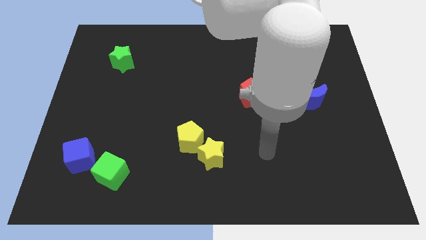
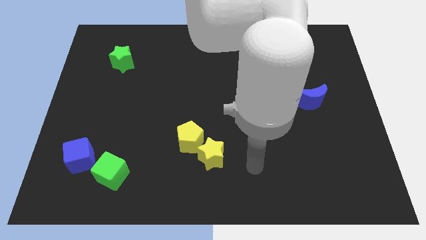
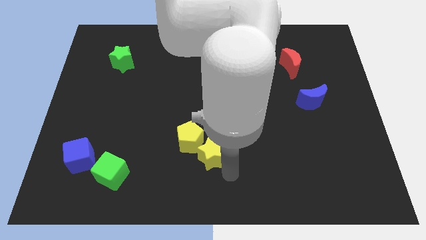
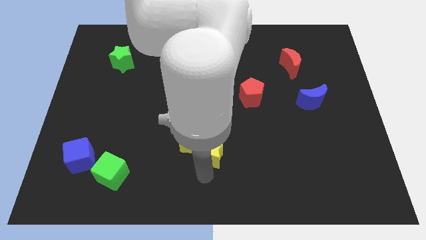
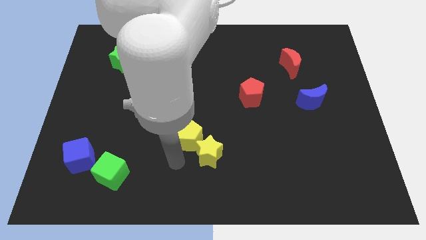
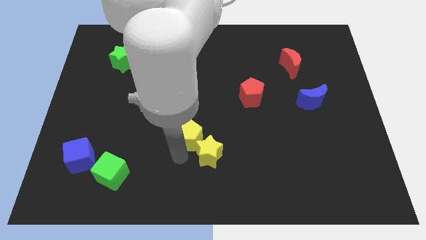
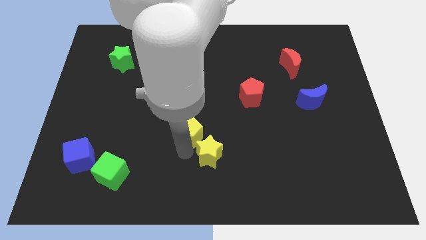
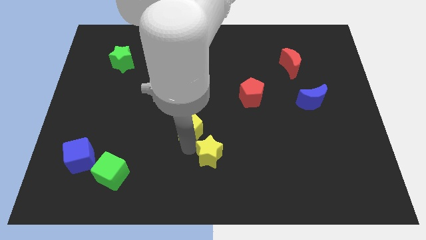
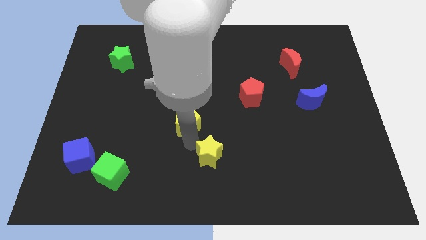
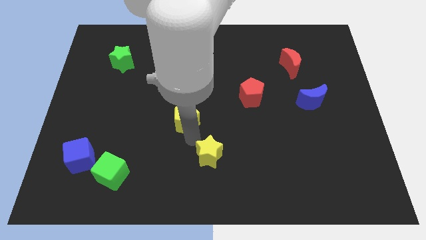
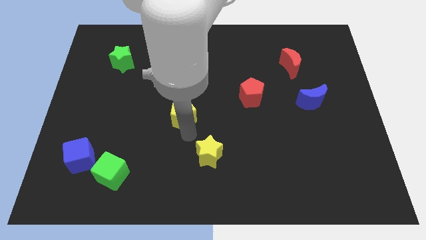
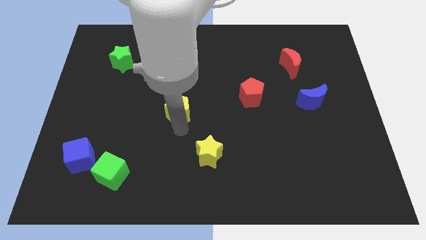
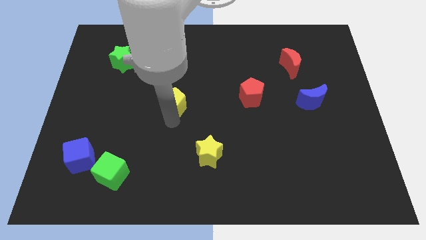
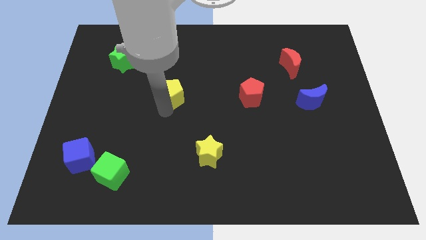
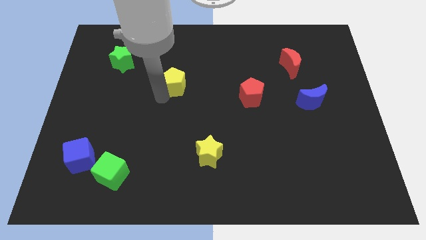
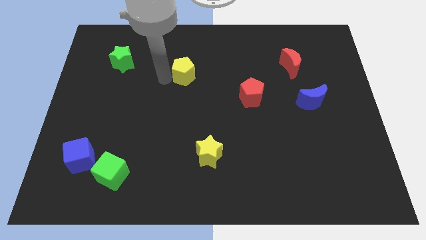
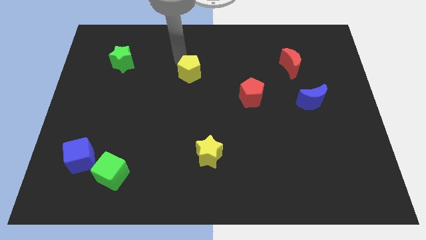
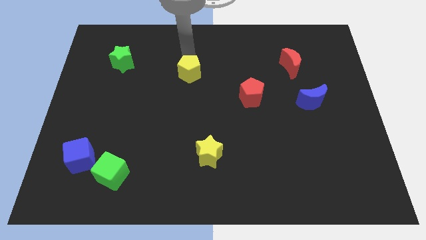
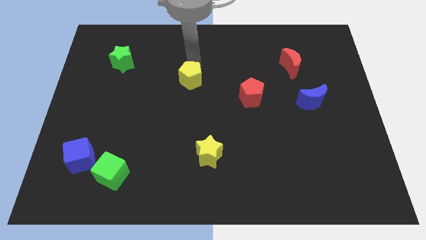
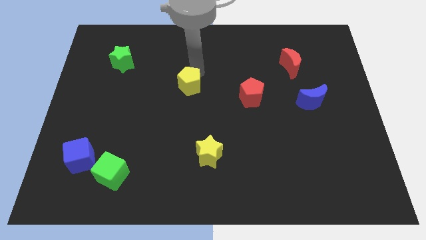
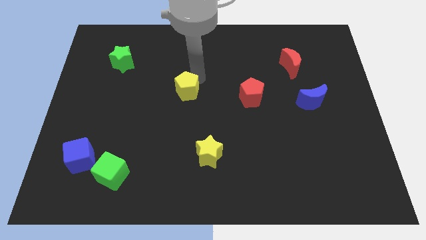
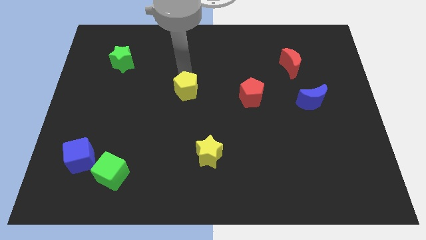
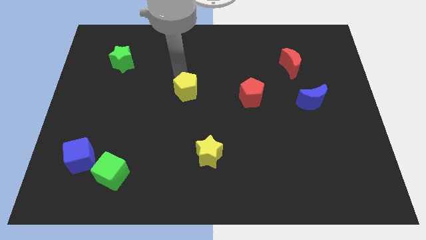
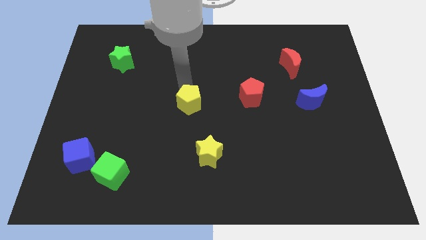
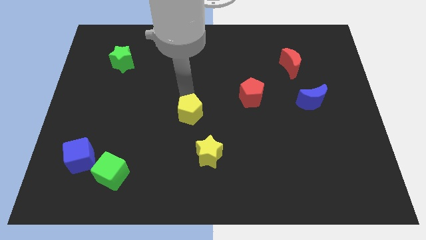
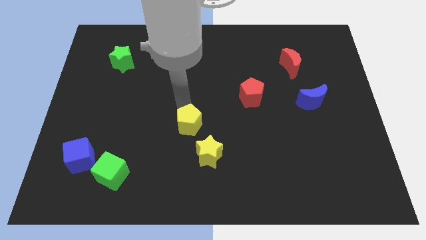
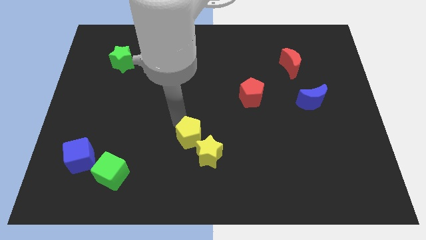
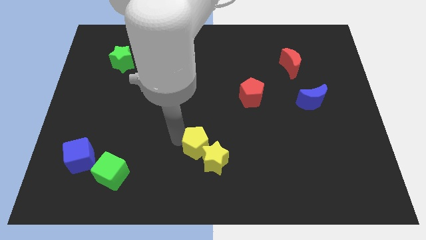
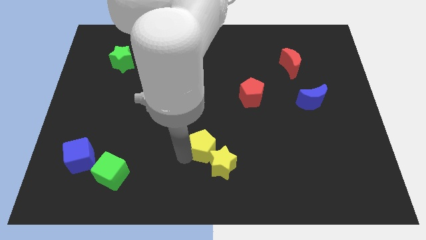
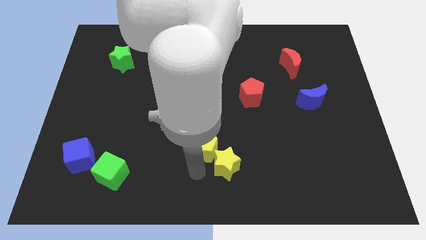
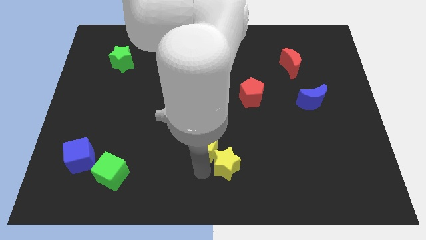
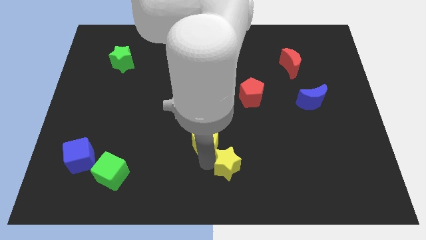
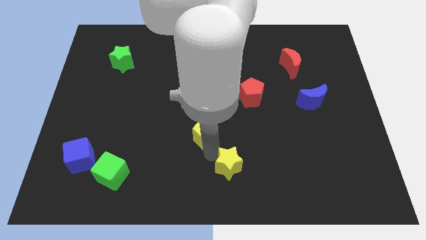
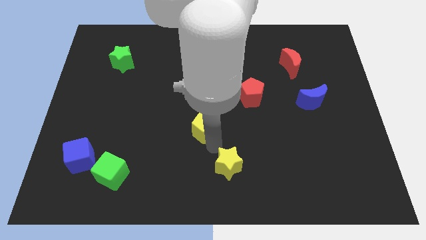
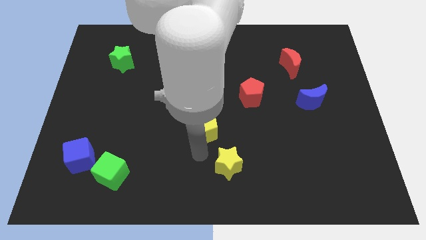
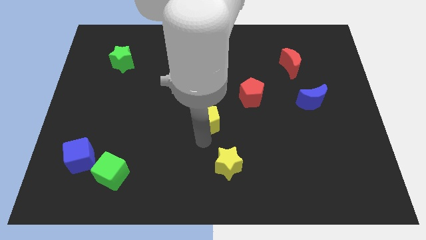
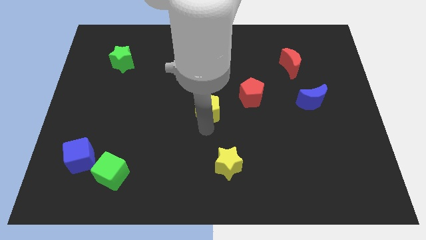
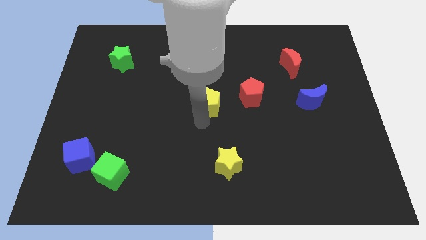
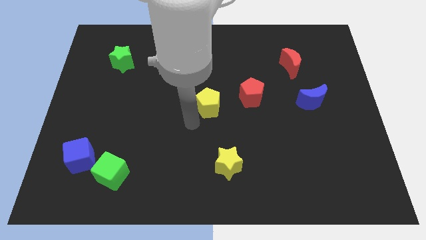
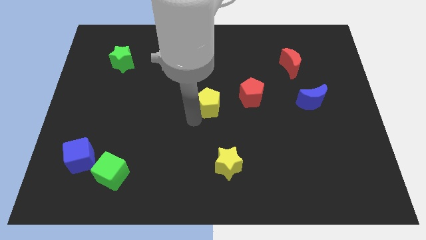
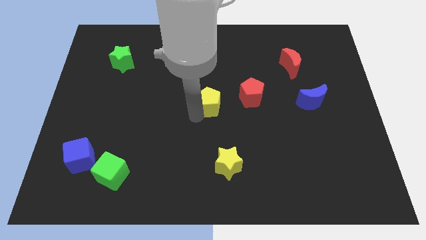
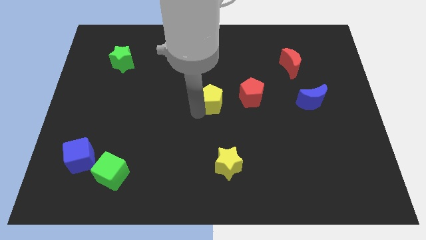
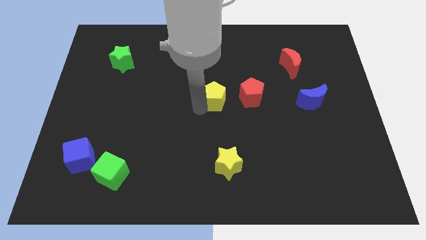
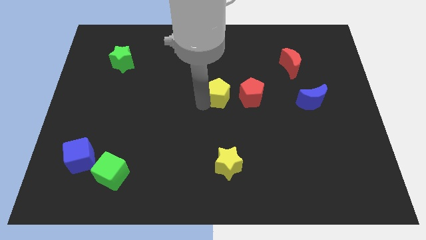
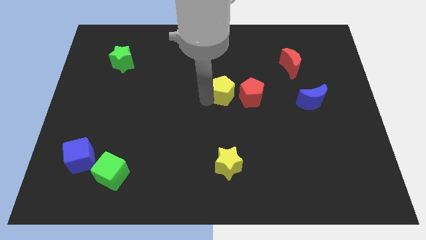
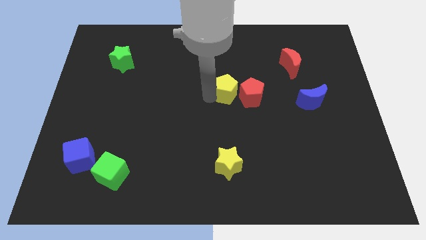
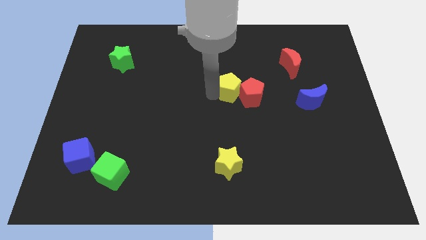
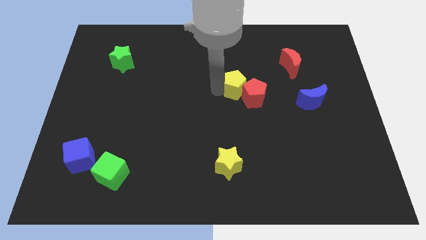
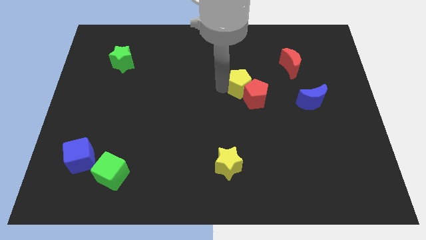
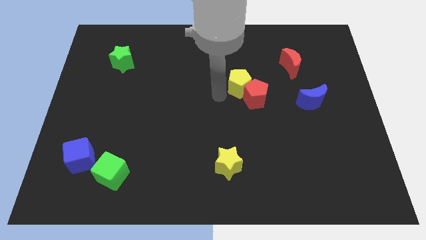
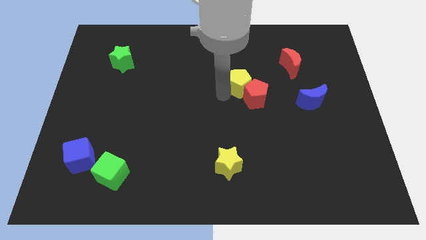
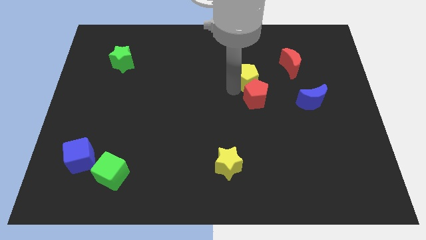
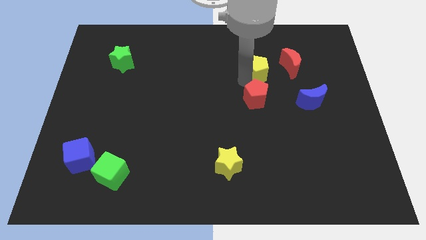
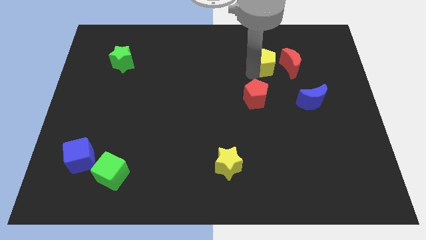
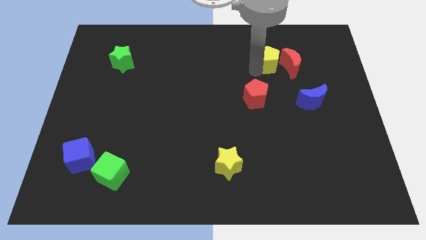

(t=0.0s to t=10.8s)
put the yellow pentagon next to the red moon

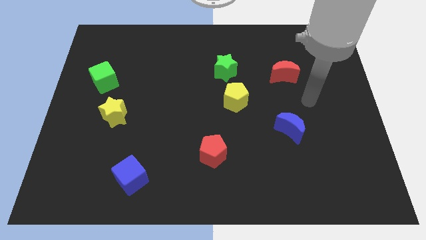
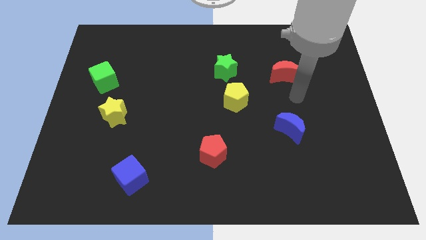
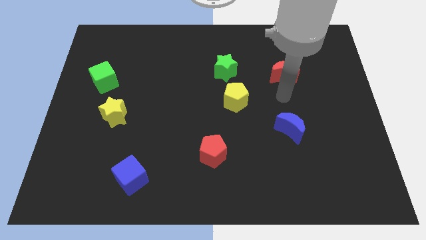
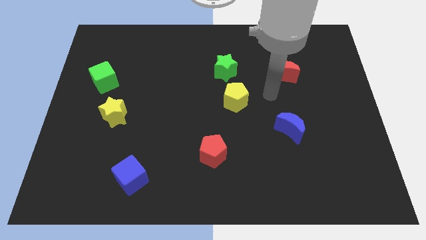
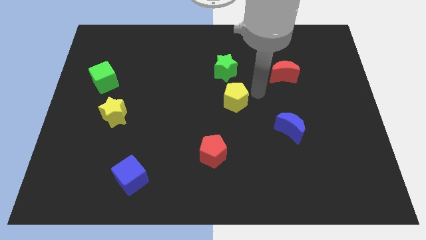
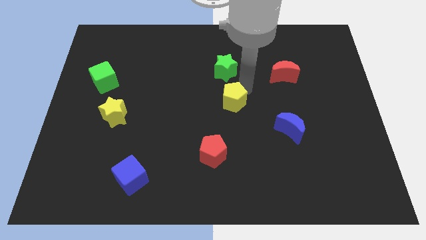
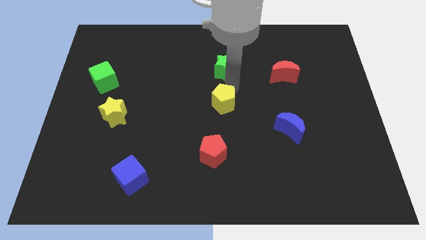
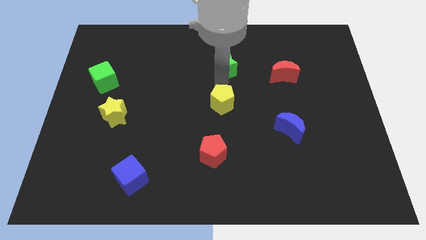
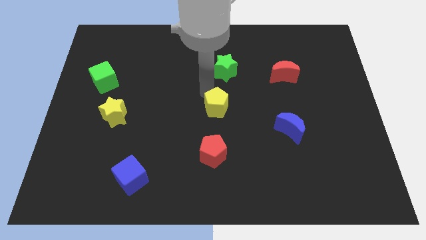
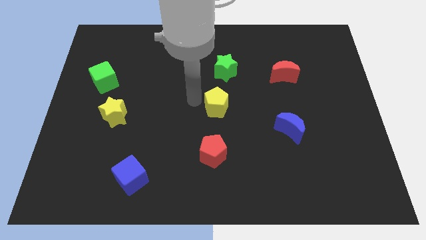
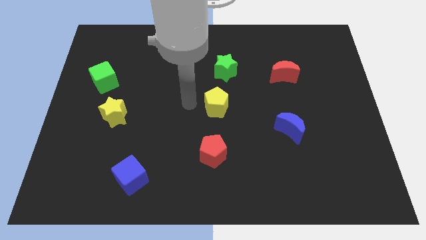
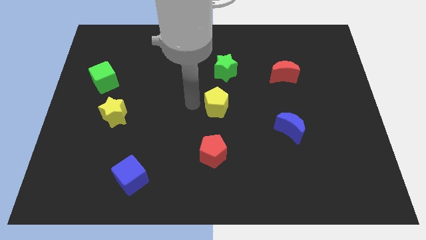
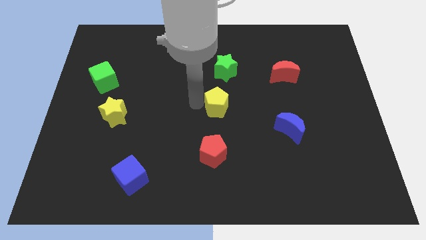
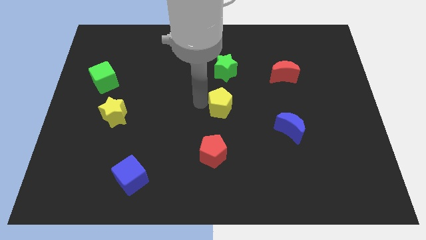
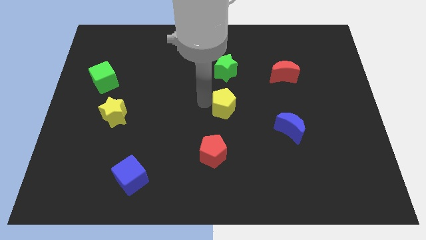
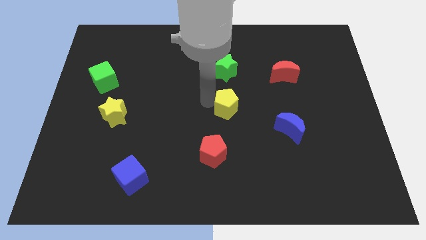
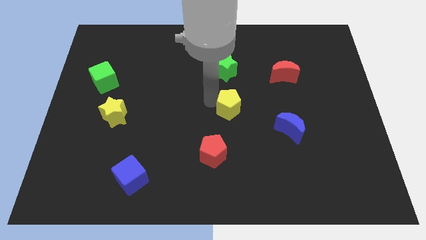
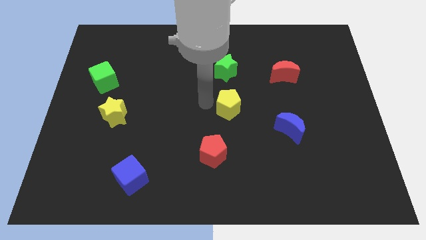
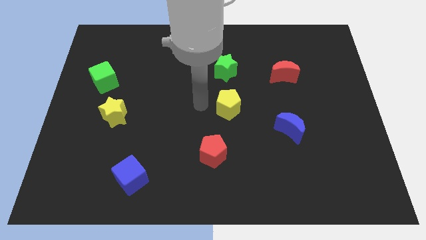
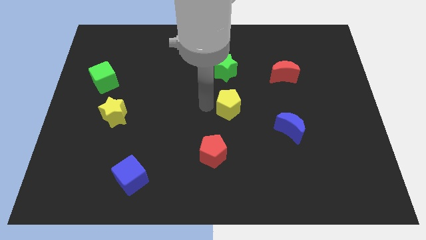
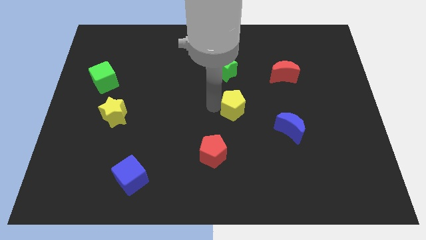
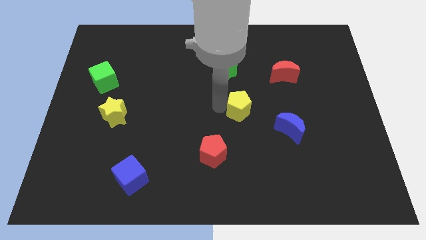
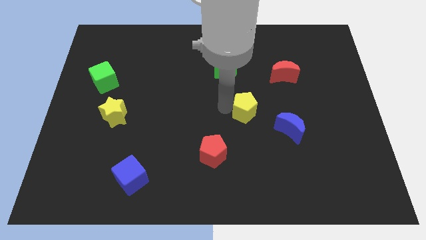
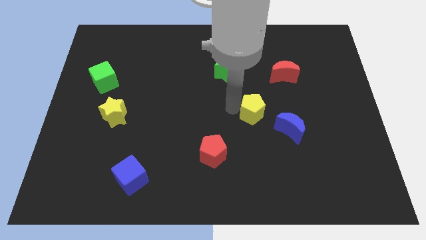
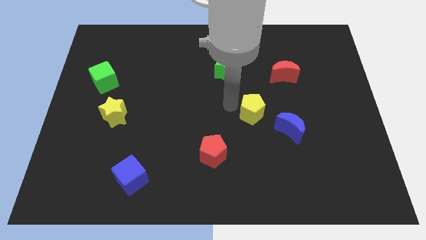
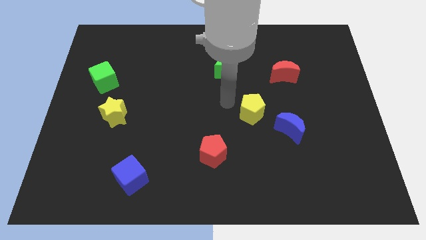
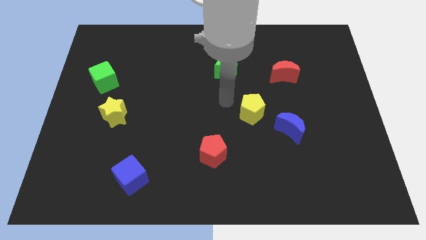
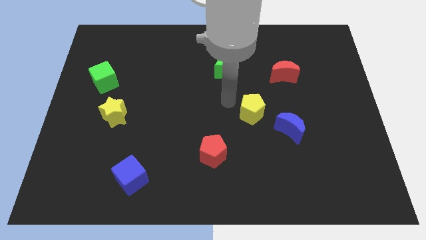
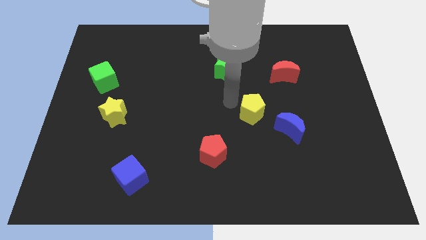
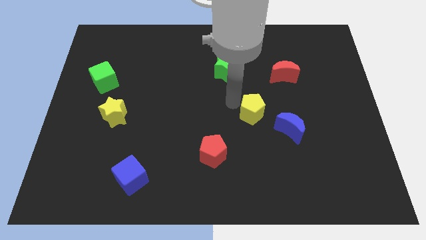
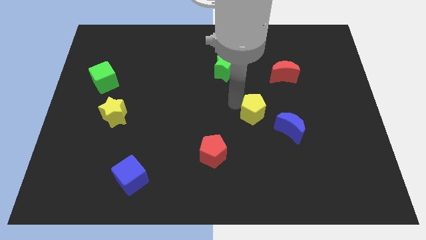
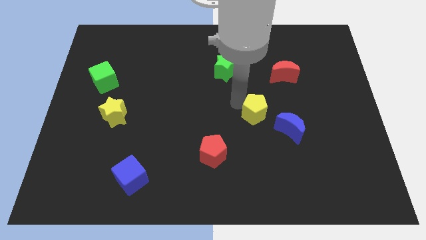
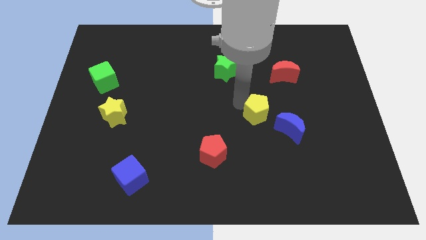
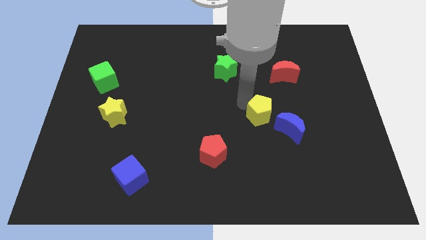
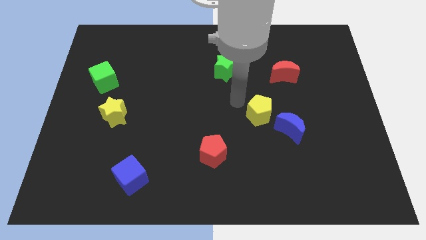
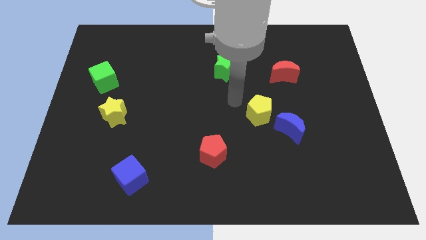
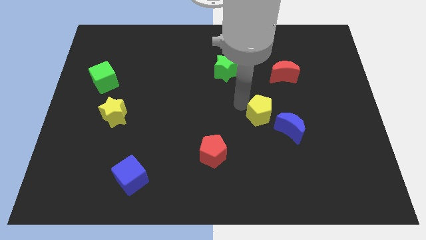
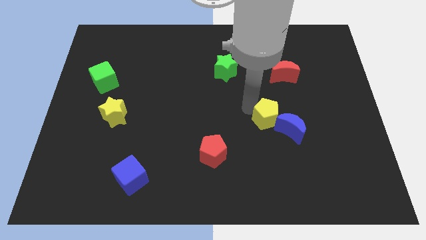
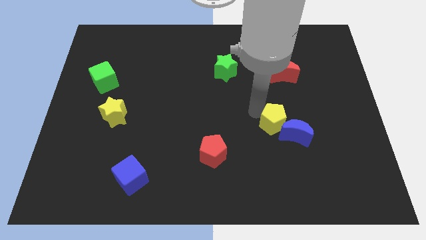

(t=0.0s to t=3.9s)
move the yellow pentagon next to the blue moon
